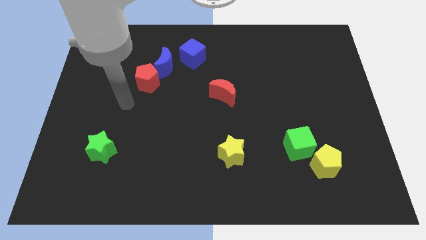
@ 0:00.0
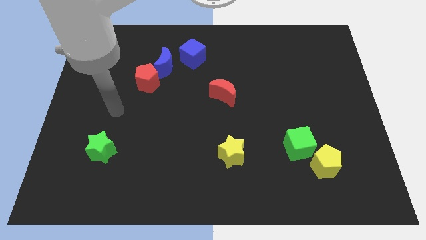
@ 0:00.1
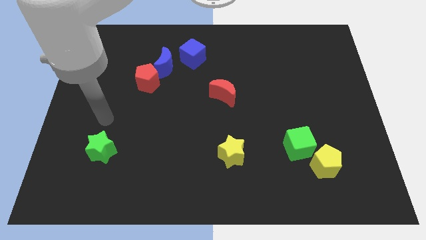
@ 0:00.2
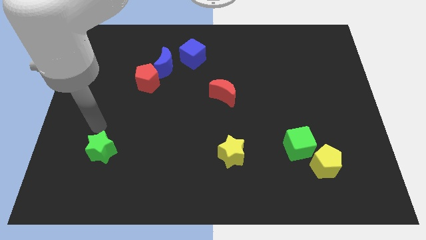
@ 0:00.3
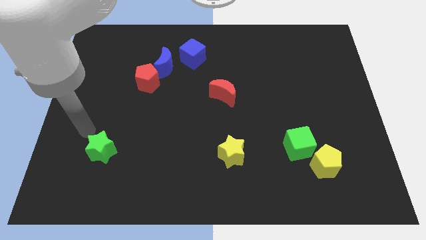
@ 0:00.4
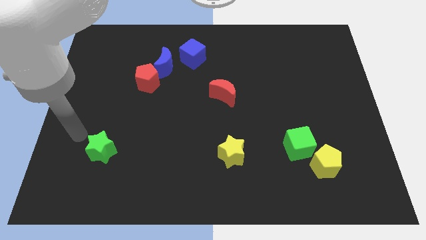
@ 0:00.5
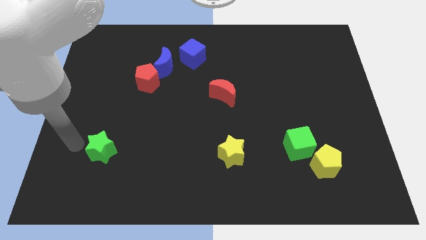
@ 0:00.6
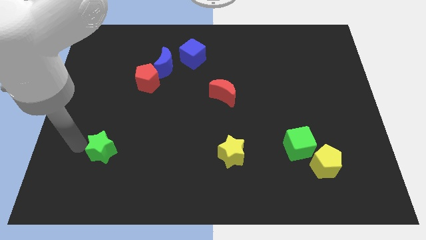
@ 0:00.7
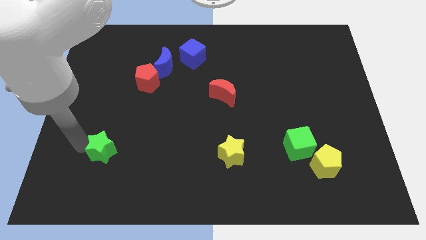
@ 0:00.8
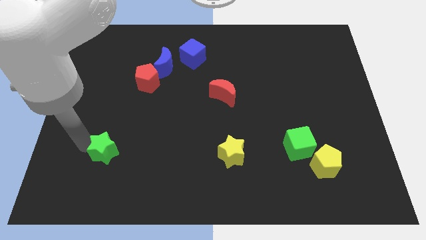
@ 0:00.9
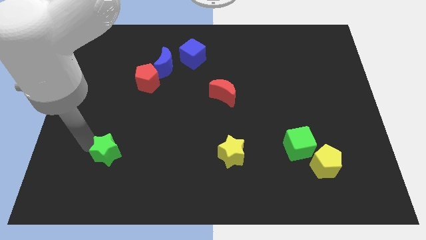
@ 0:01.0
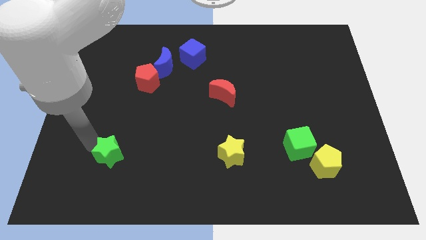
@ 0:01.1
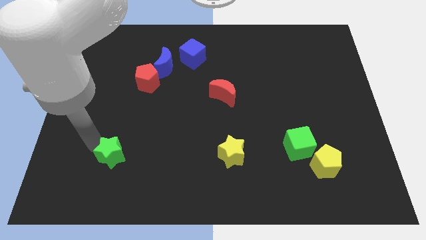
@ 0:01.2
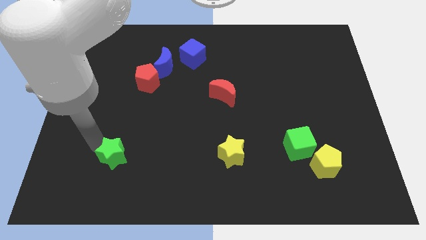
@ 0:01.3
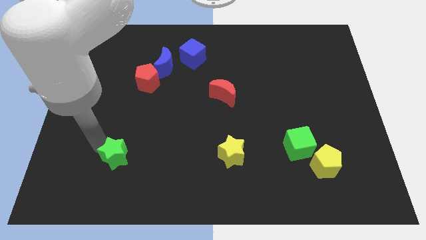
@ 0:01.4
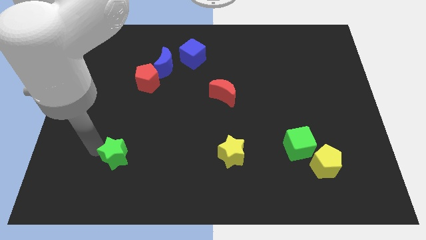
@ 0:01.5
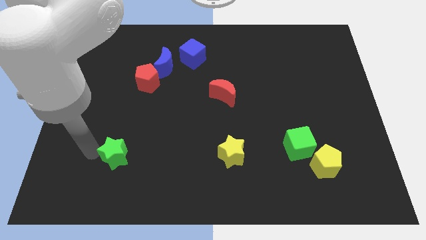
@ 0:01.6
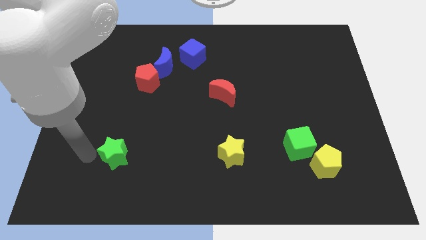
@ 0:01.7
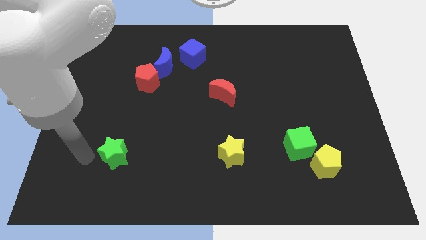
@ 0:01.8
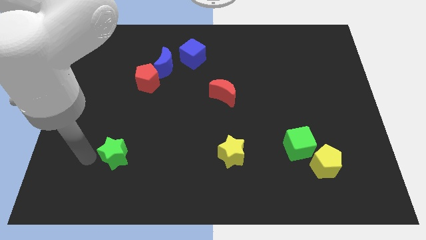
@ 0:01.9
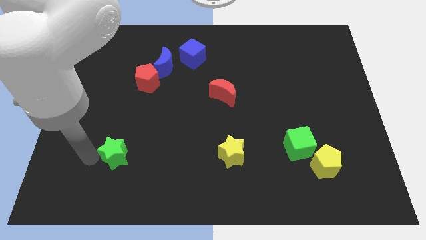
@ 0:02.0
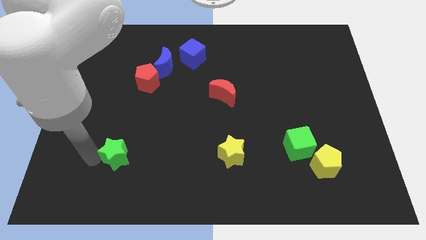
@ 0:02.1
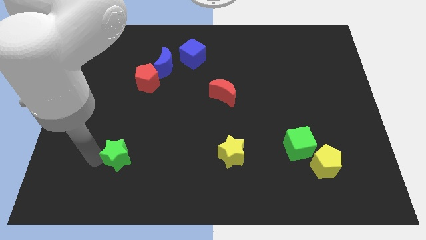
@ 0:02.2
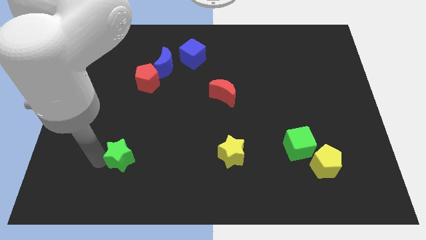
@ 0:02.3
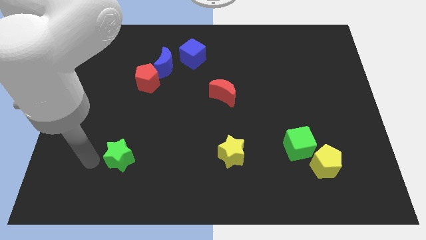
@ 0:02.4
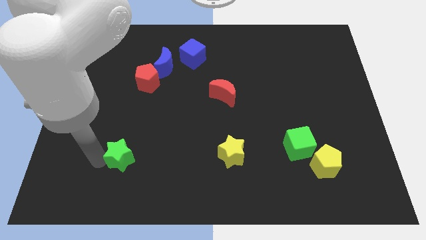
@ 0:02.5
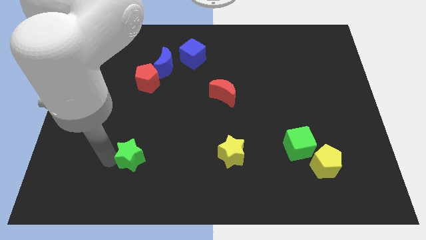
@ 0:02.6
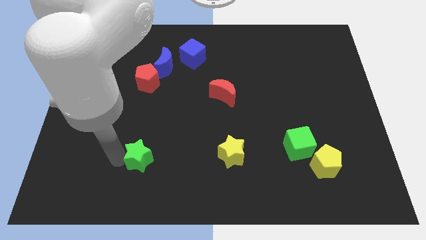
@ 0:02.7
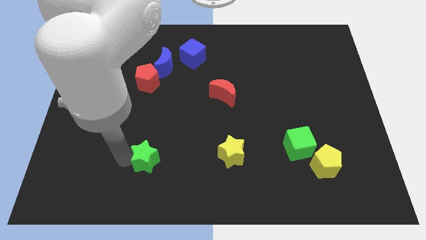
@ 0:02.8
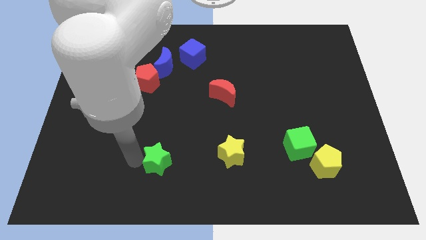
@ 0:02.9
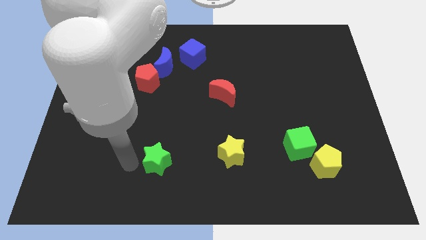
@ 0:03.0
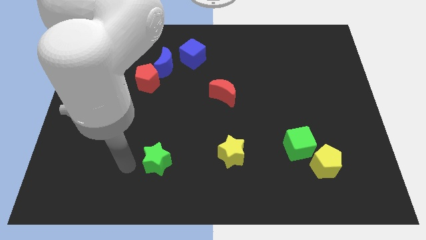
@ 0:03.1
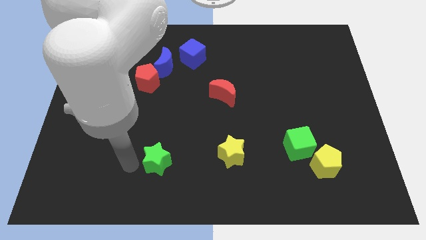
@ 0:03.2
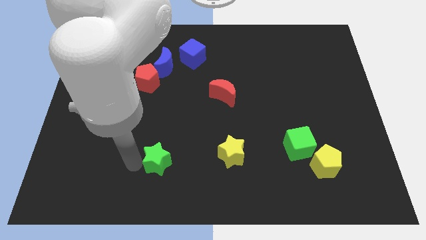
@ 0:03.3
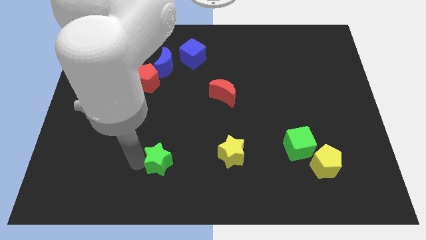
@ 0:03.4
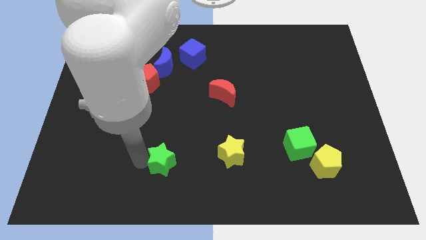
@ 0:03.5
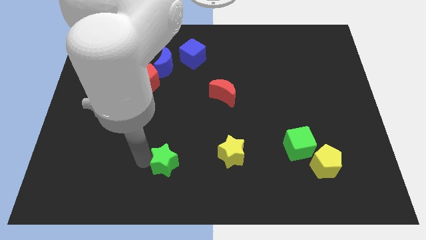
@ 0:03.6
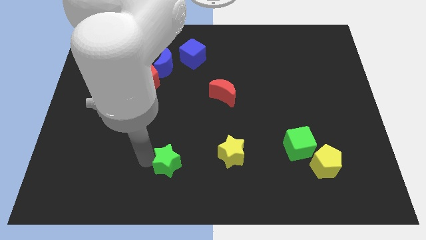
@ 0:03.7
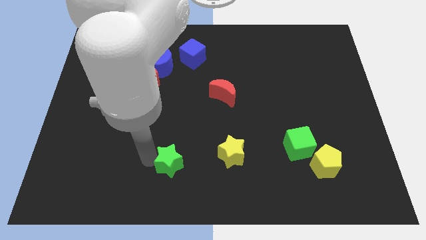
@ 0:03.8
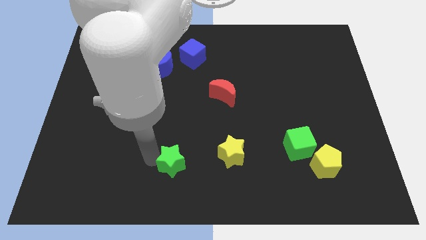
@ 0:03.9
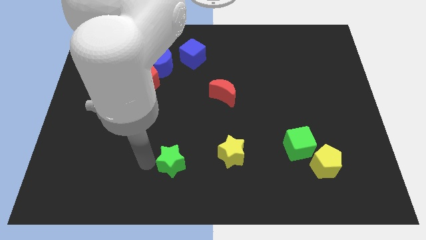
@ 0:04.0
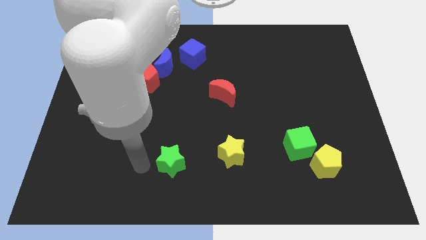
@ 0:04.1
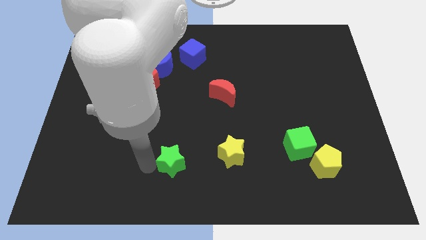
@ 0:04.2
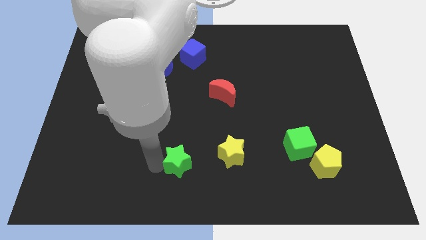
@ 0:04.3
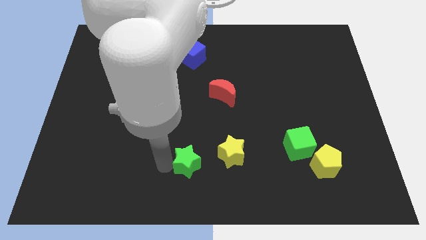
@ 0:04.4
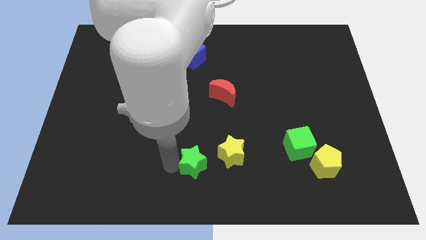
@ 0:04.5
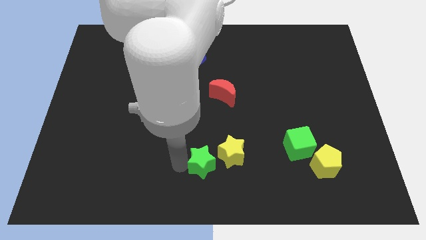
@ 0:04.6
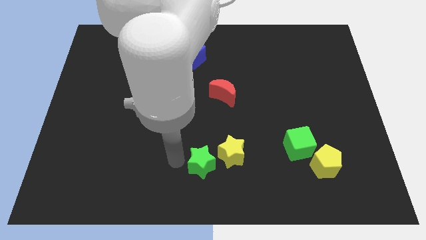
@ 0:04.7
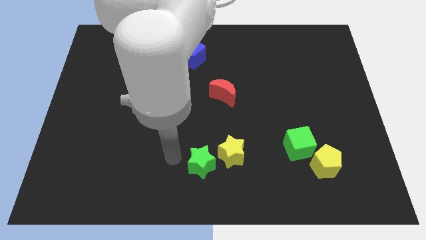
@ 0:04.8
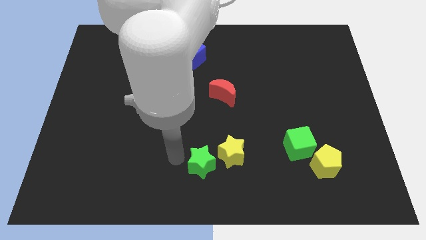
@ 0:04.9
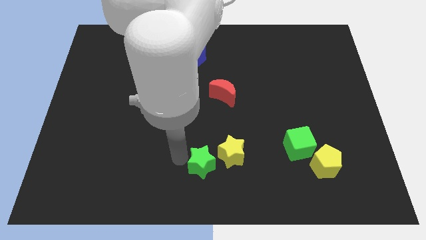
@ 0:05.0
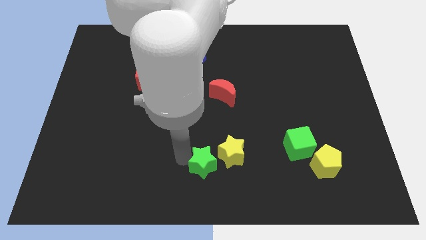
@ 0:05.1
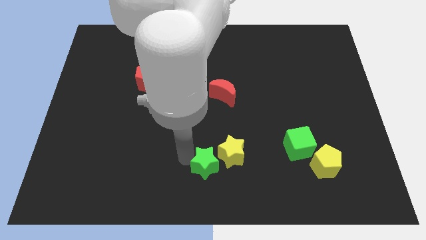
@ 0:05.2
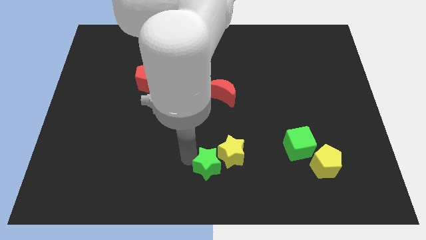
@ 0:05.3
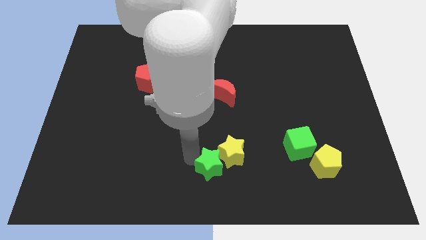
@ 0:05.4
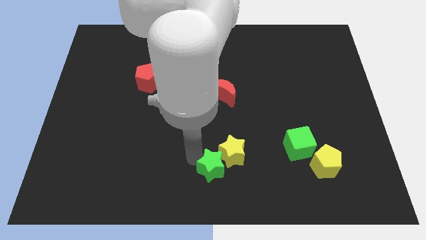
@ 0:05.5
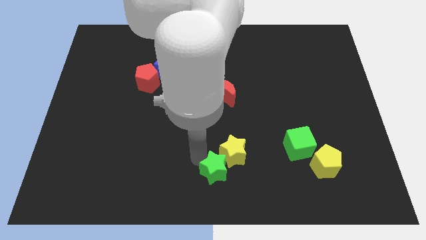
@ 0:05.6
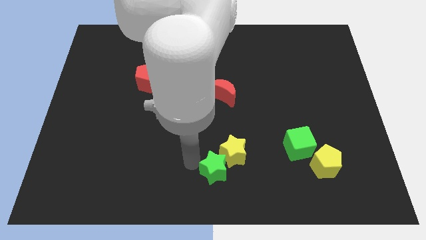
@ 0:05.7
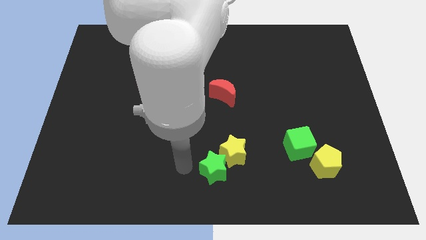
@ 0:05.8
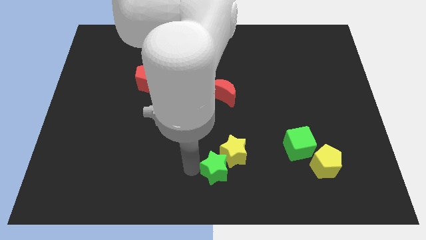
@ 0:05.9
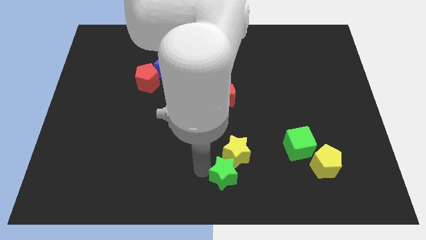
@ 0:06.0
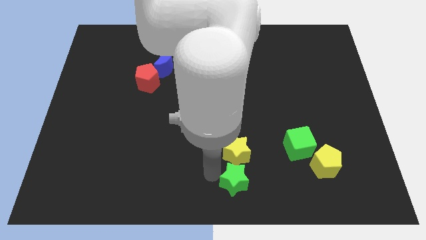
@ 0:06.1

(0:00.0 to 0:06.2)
push the green star diagonally down and to the right of the yellow star
